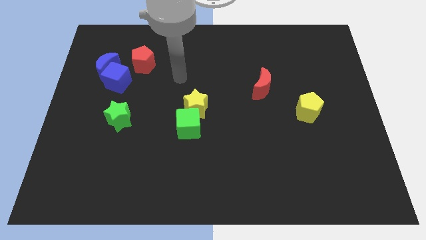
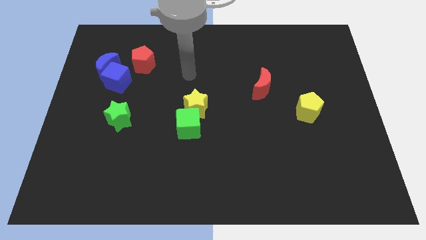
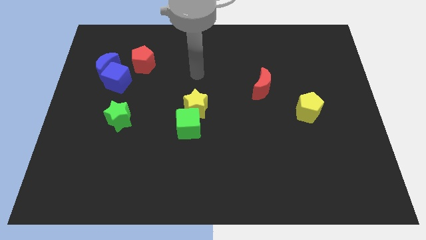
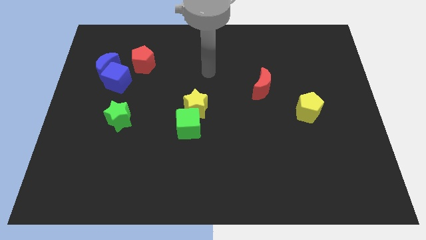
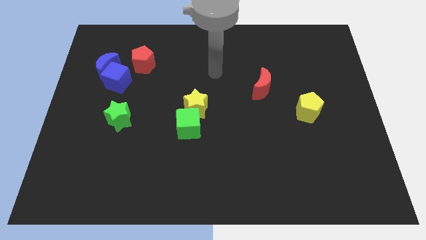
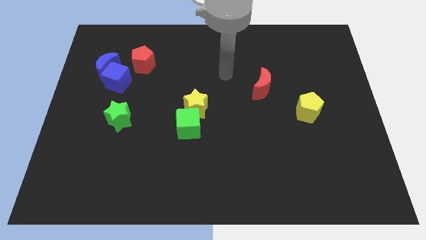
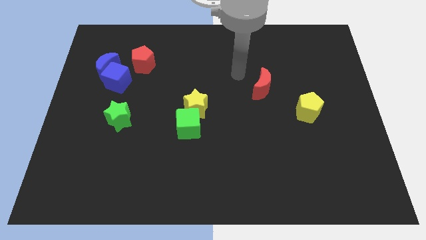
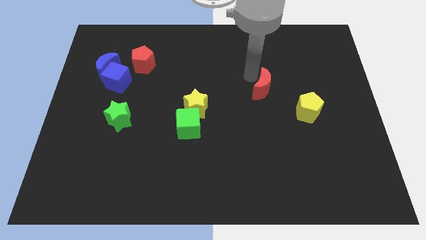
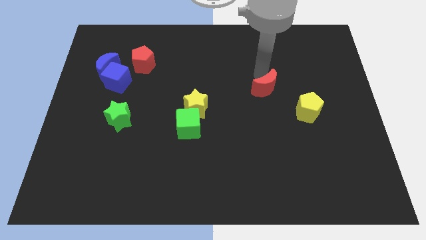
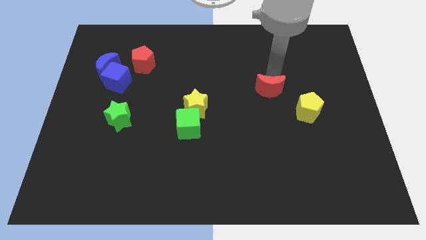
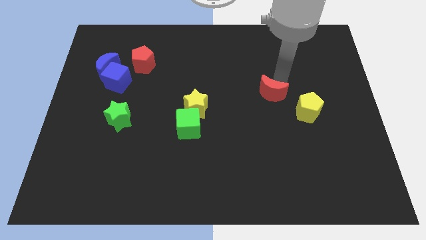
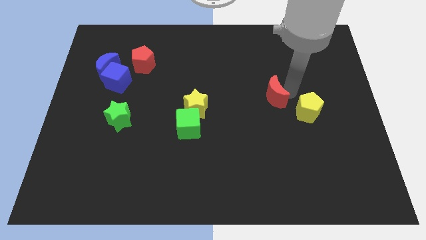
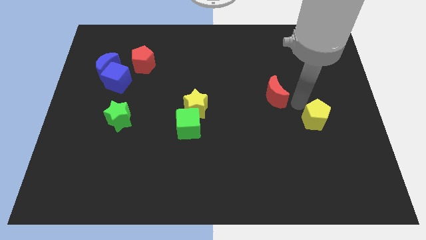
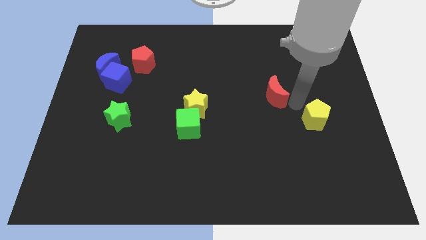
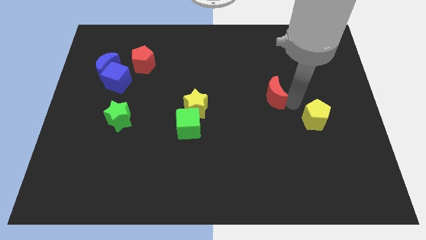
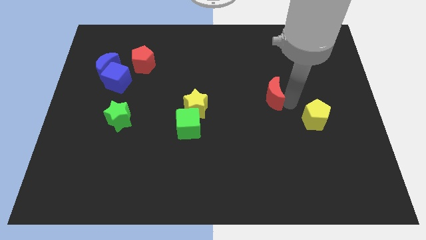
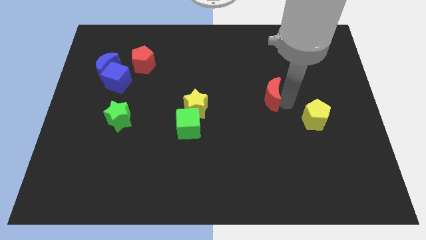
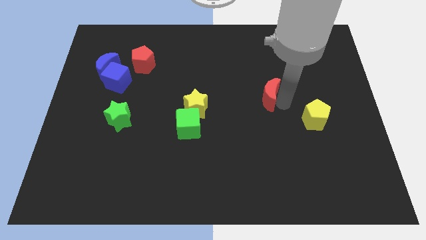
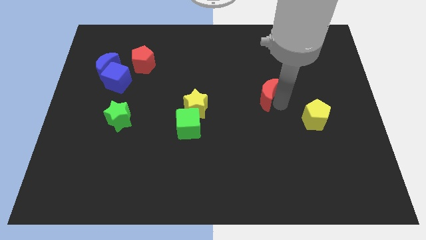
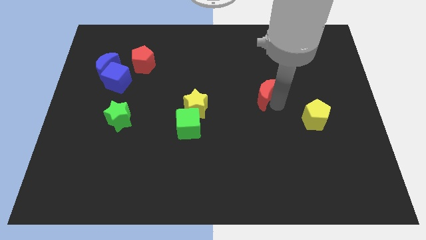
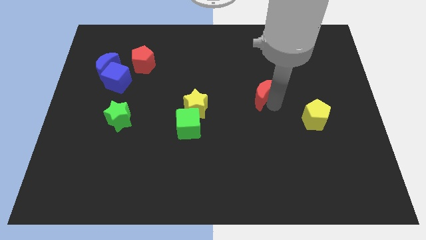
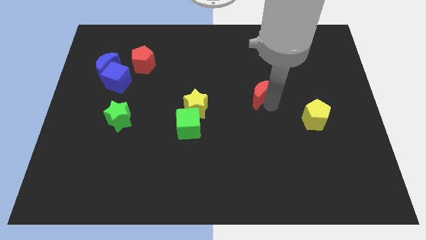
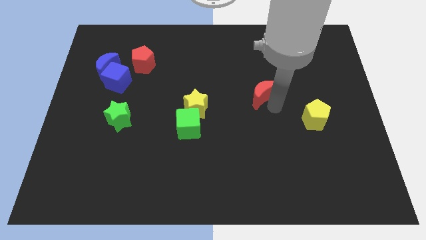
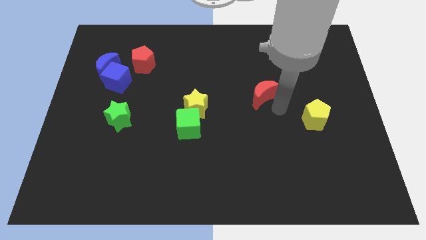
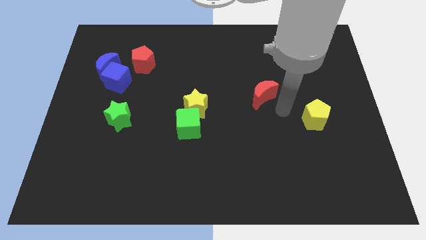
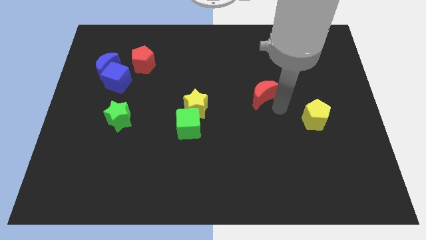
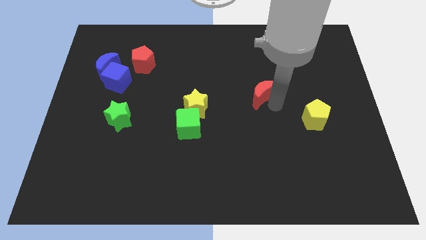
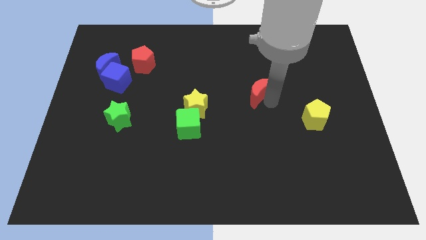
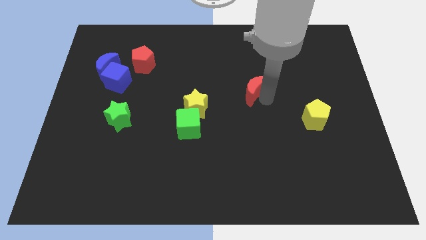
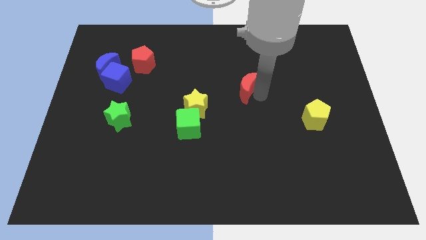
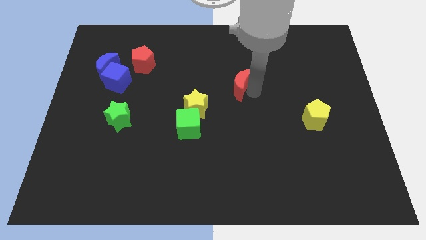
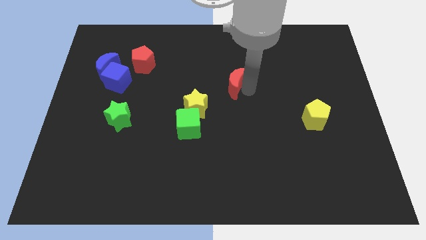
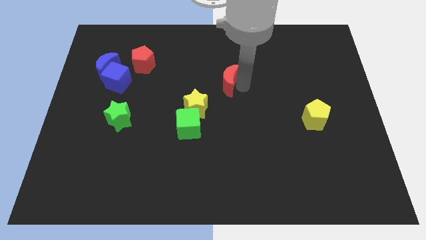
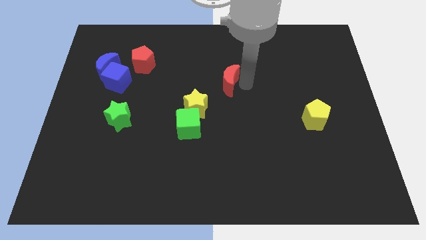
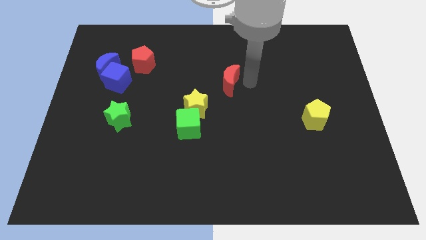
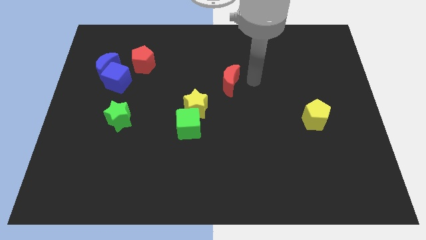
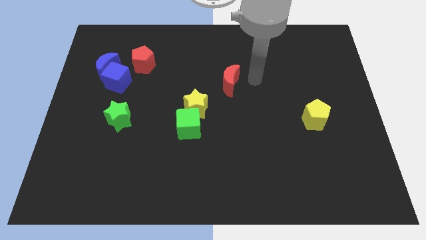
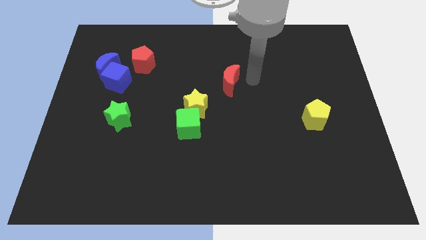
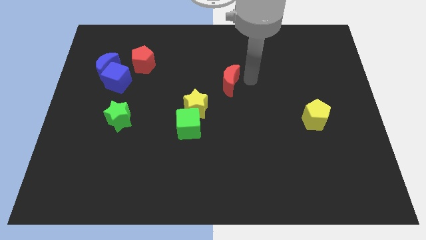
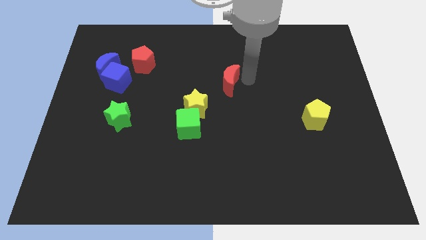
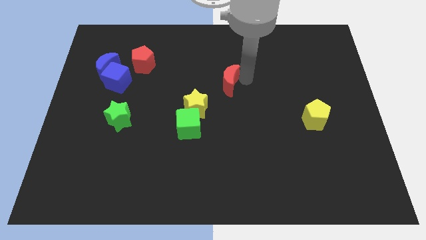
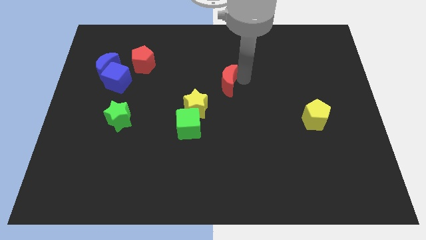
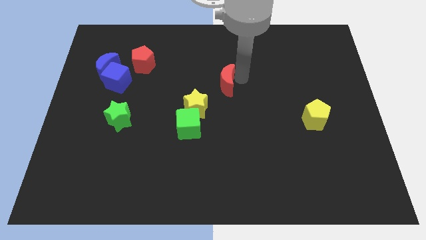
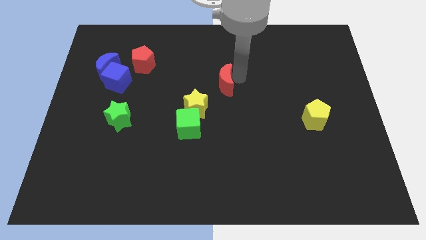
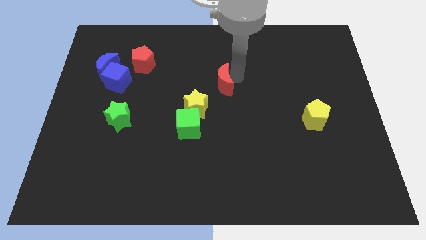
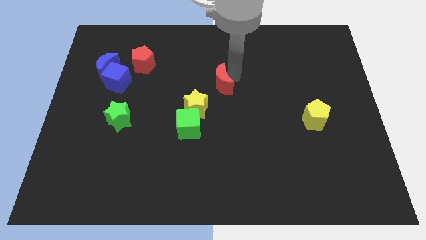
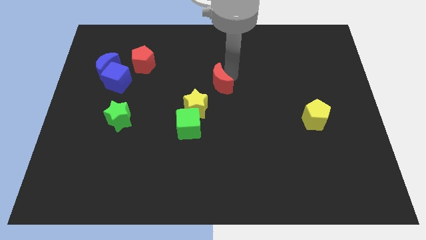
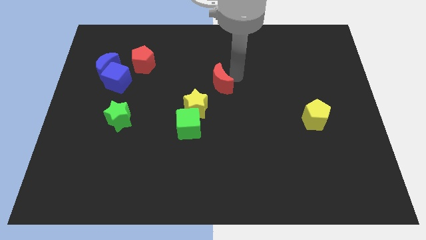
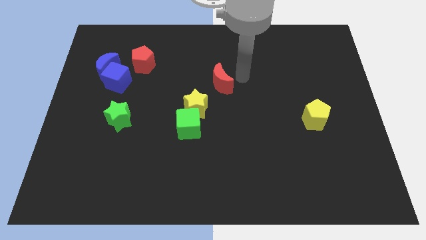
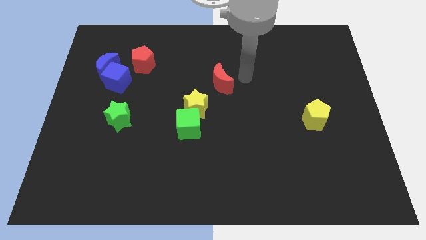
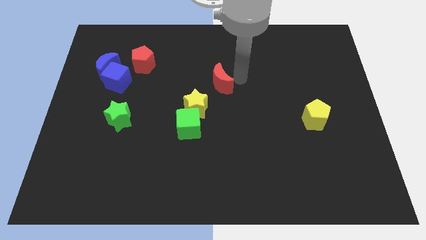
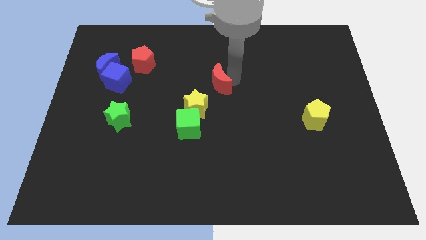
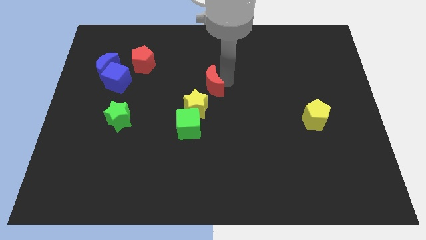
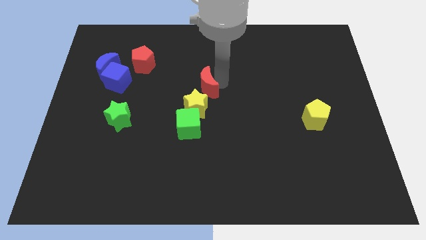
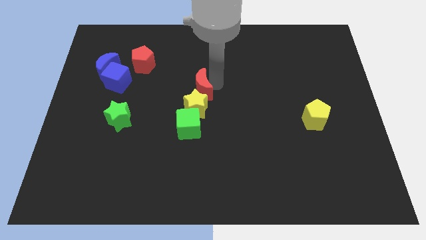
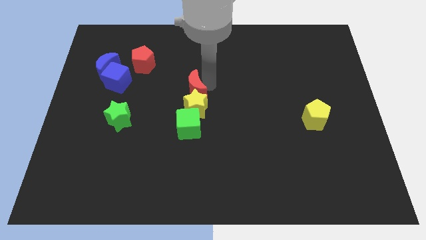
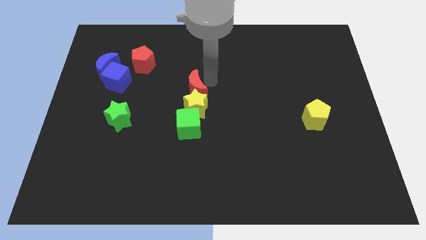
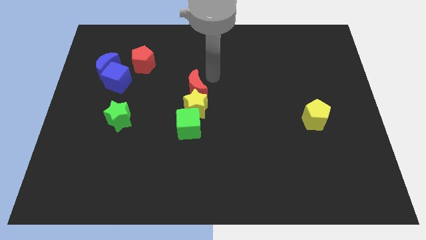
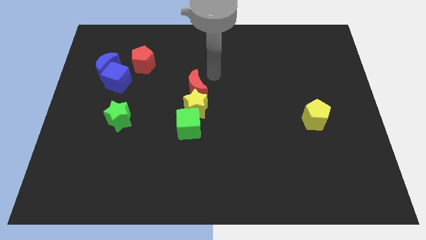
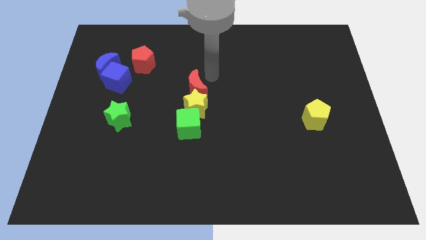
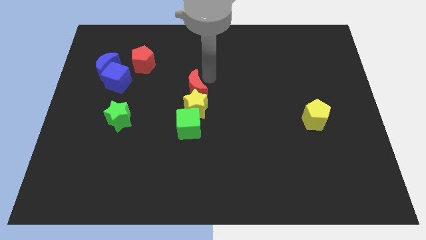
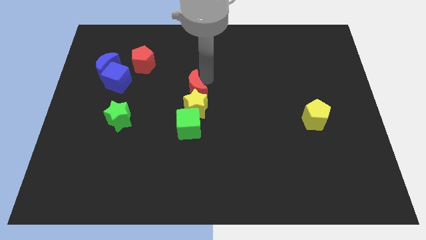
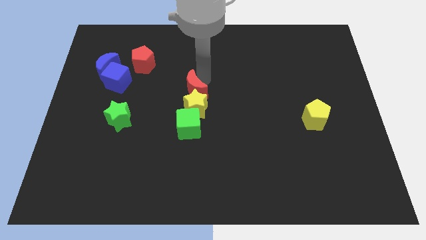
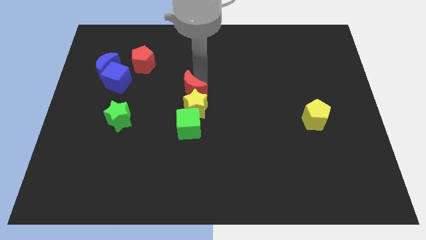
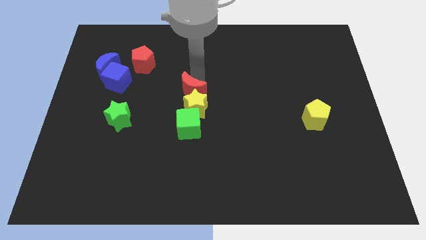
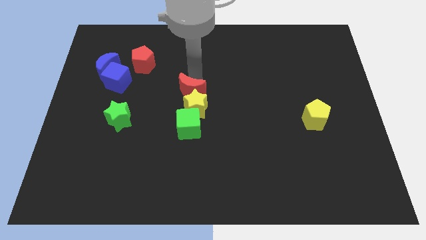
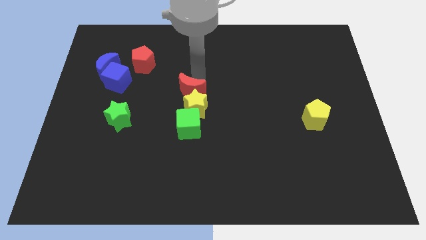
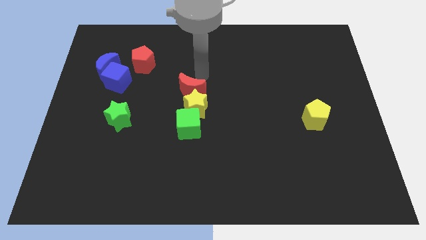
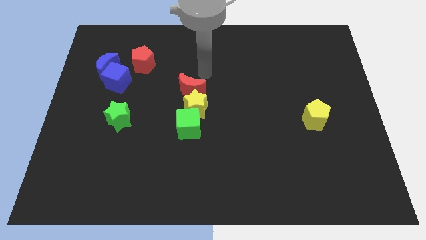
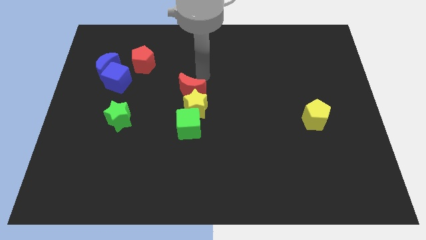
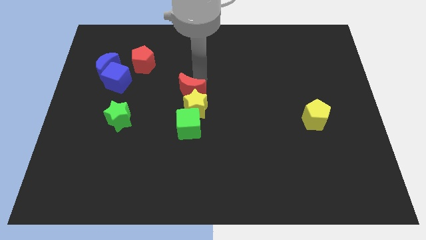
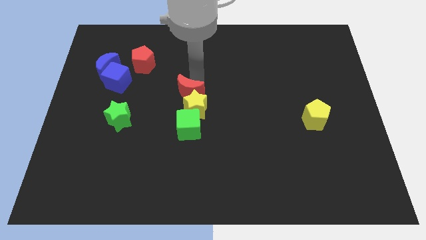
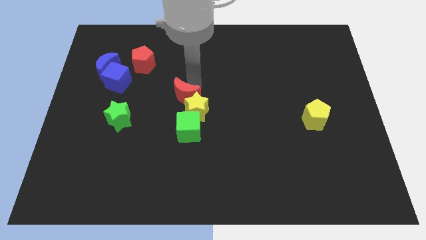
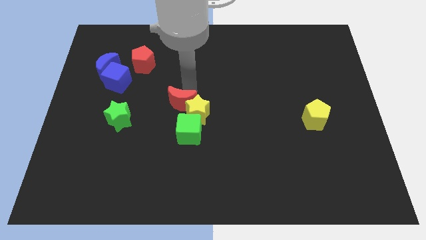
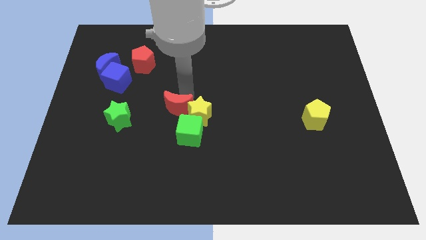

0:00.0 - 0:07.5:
slide the red moon right of the green star
